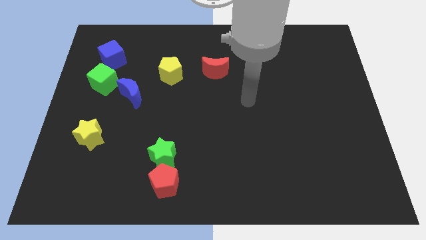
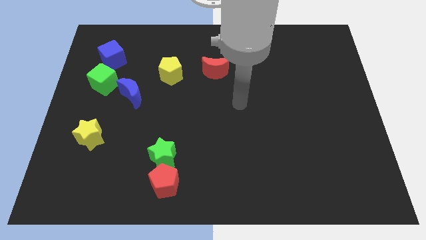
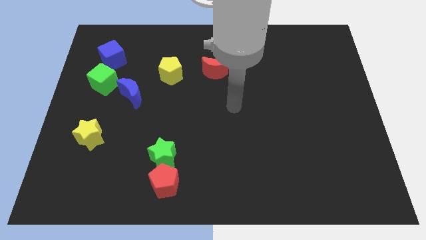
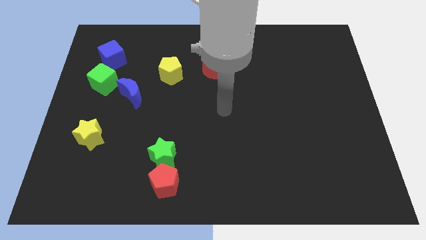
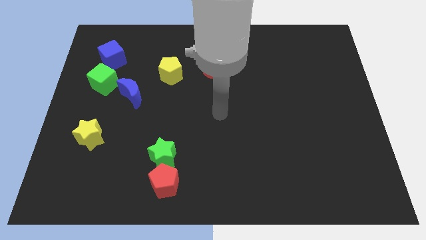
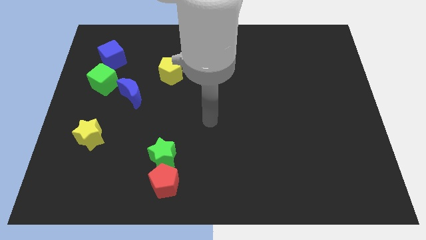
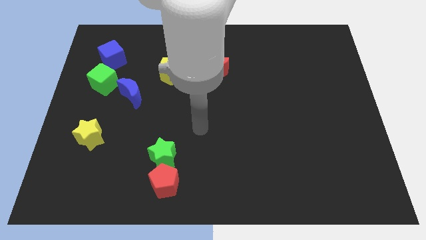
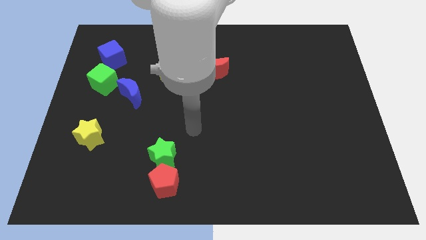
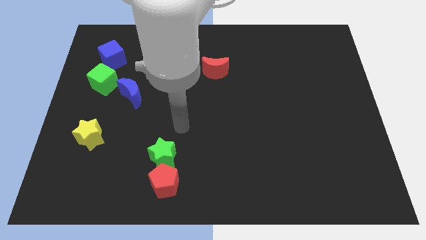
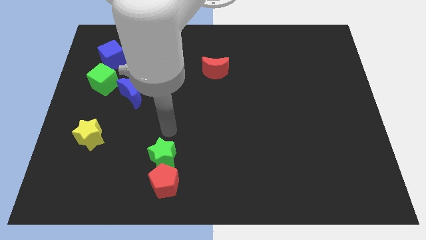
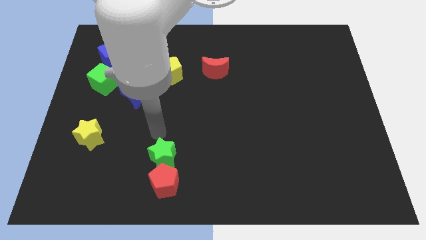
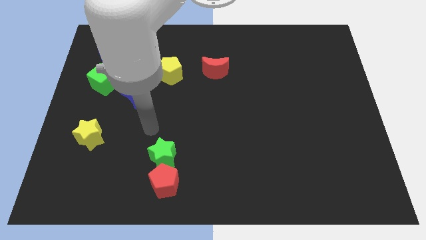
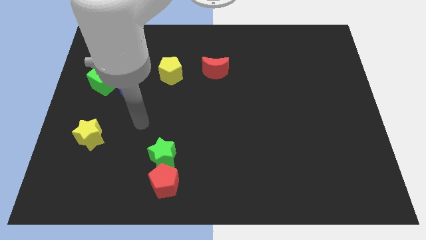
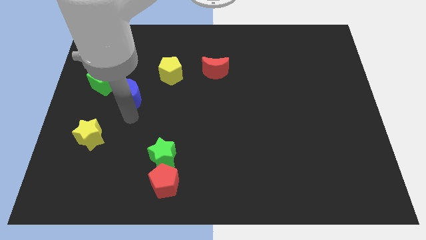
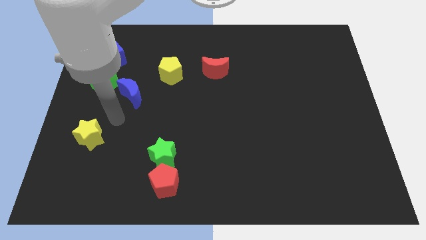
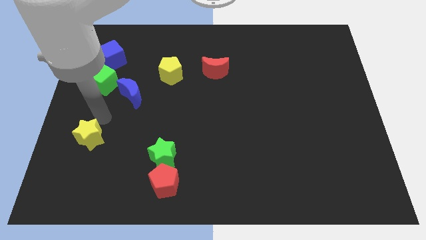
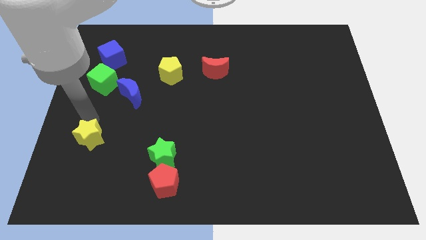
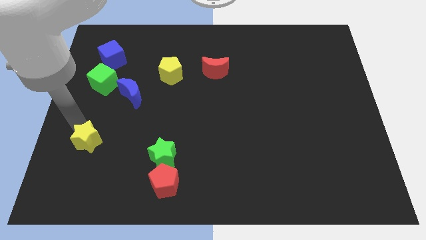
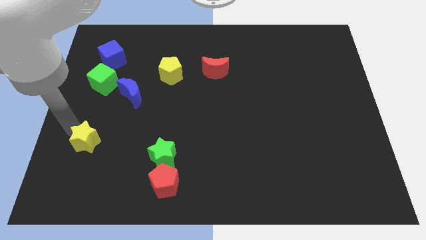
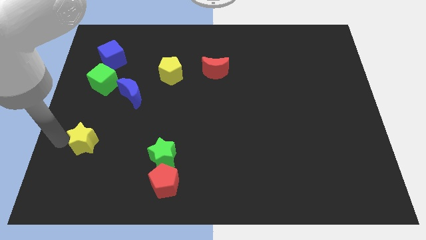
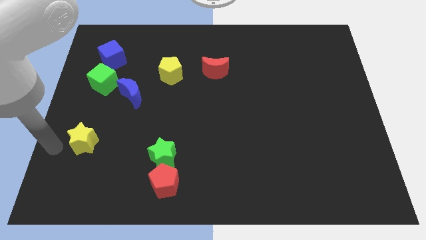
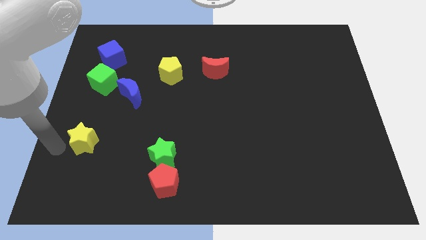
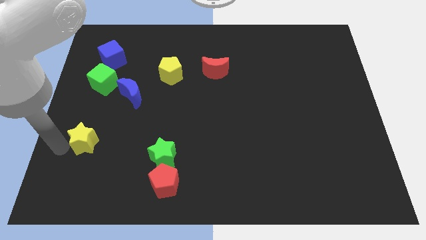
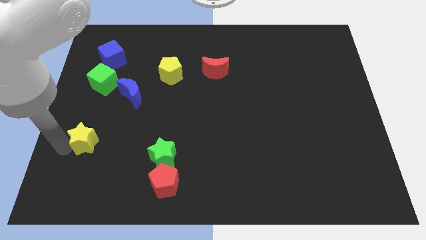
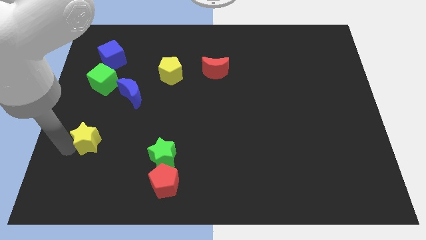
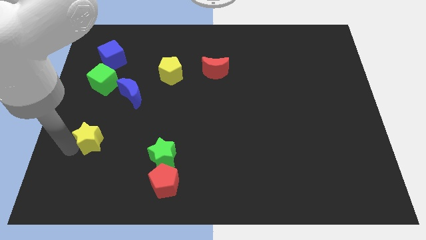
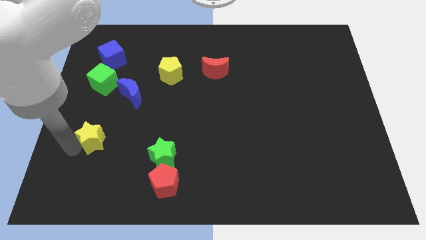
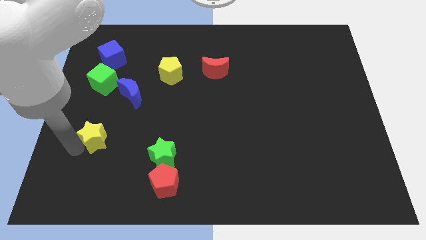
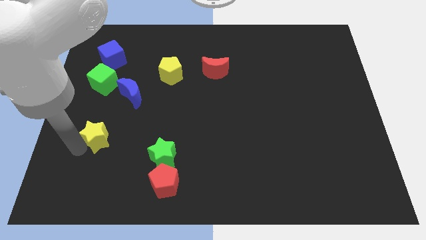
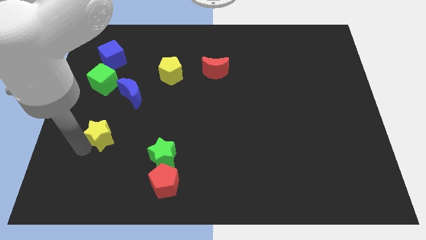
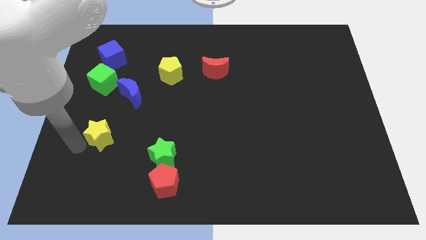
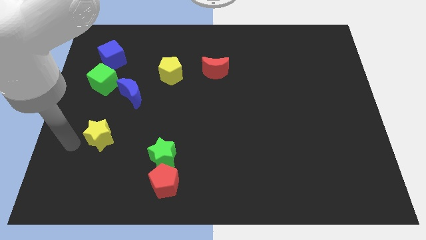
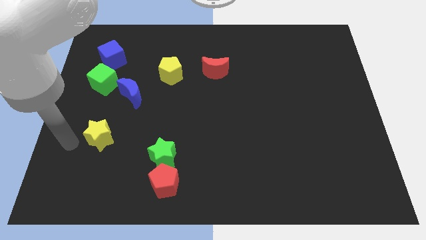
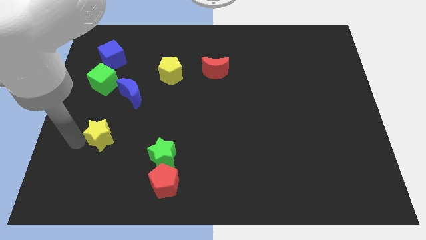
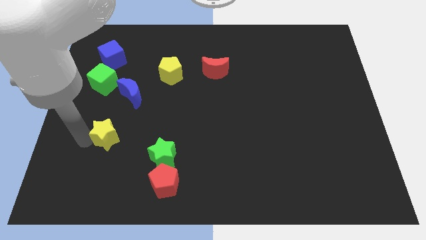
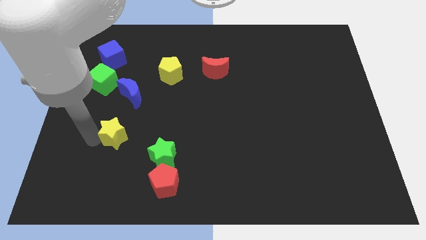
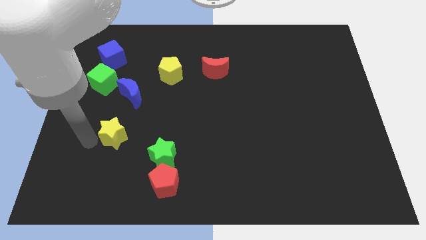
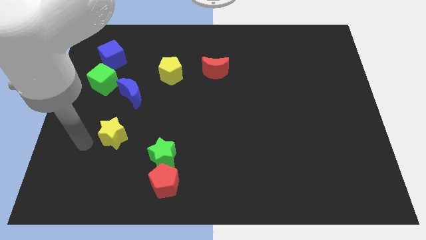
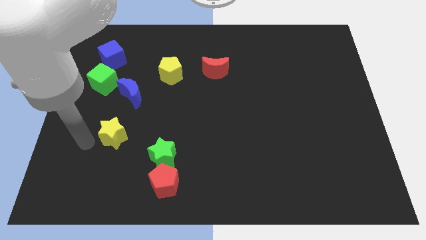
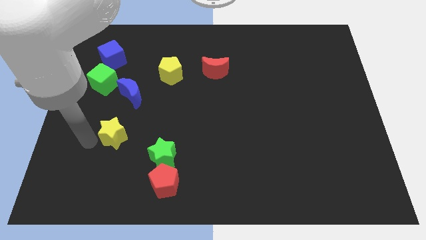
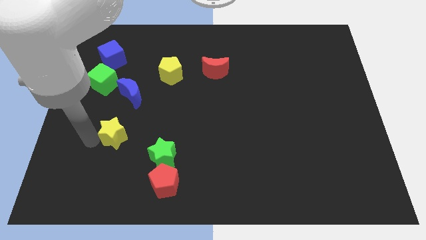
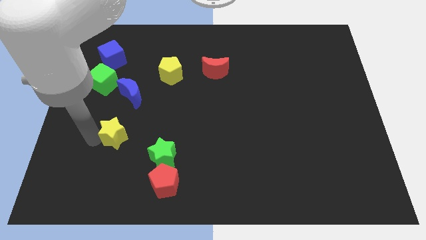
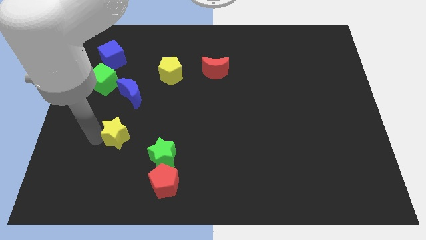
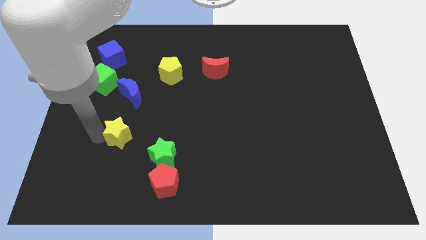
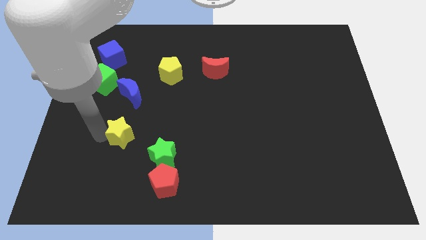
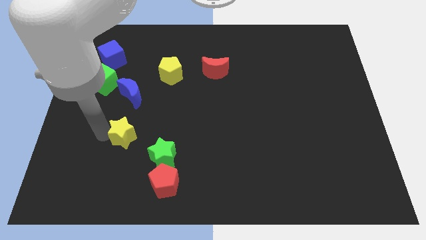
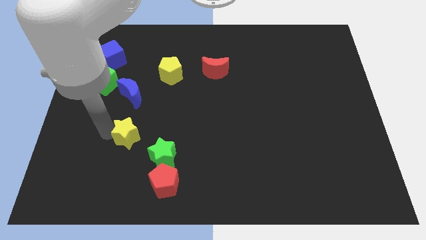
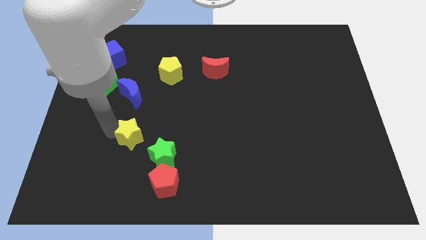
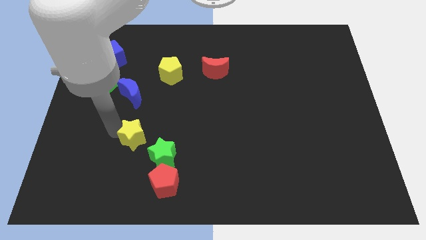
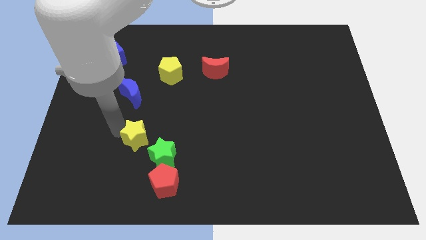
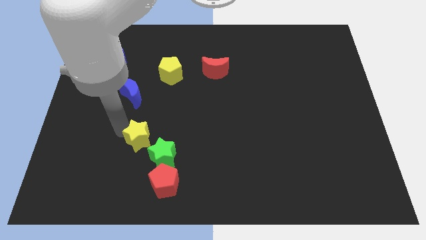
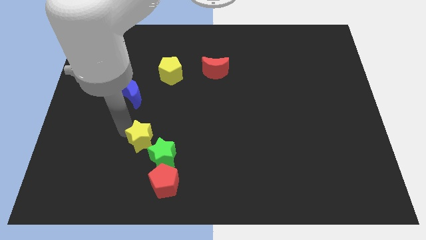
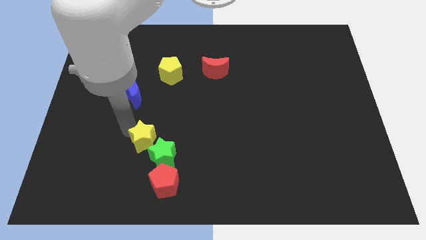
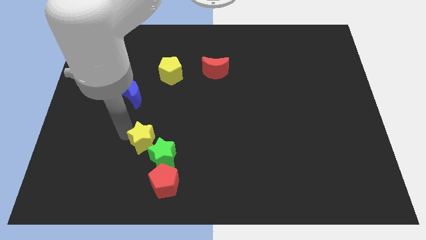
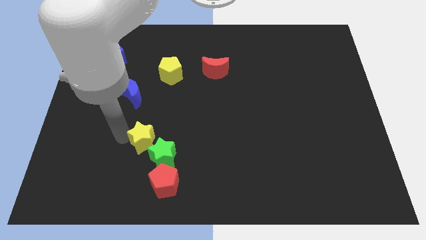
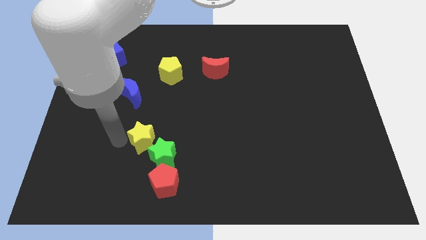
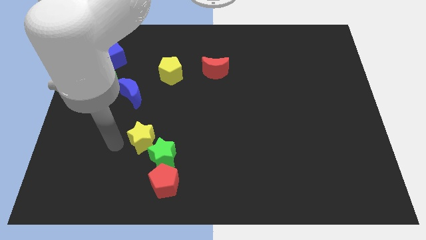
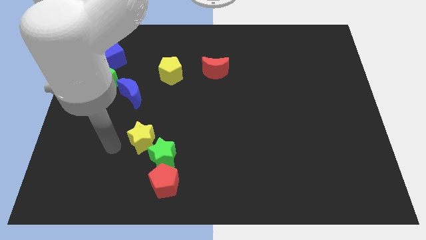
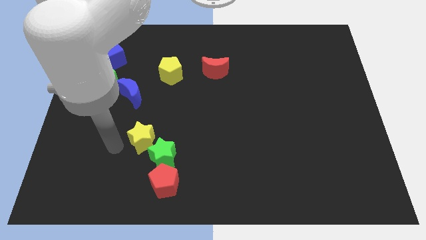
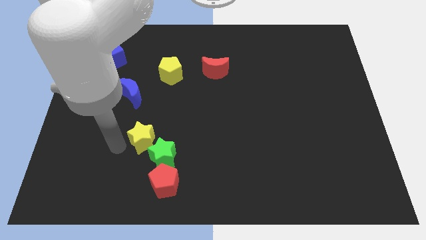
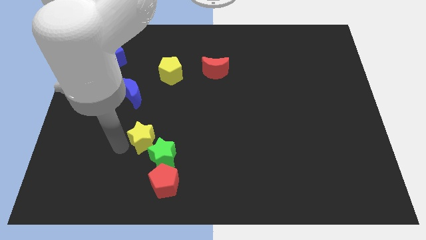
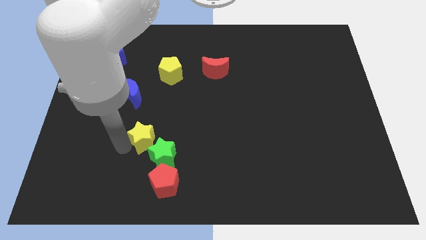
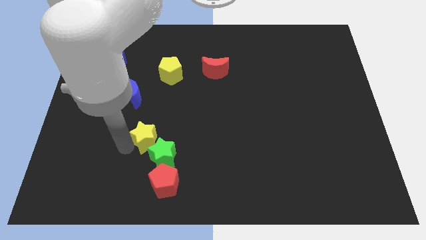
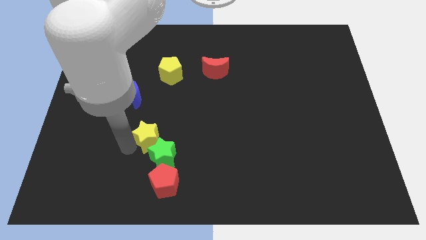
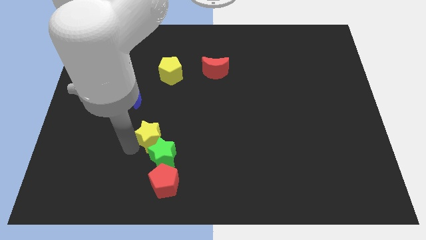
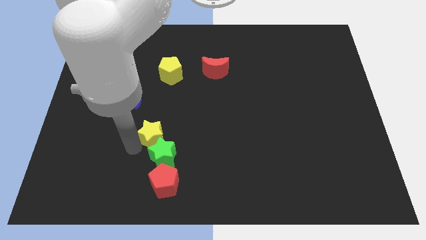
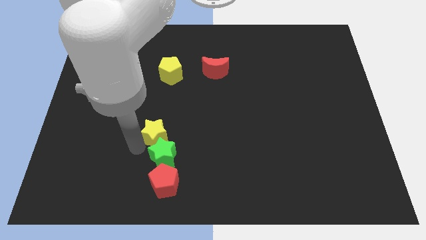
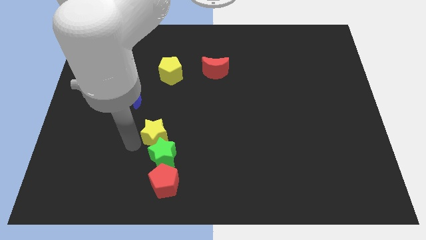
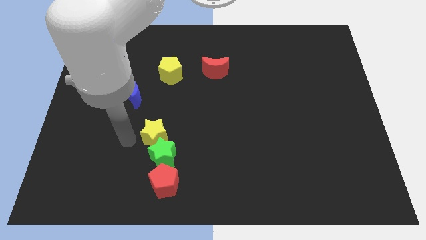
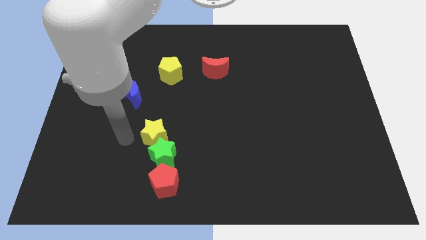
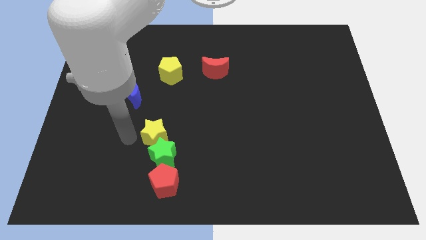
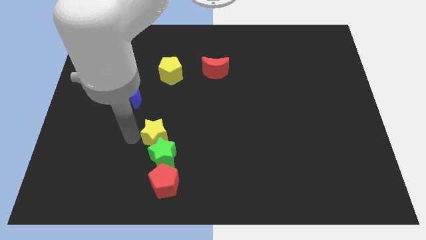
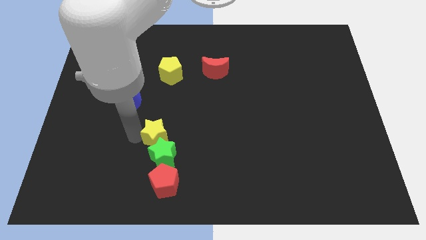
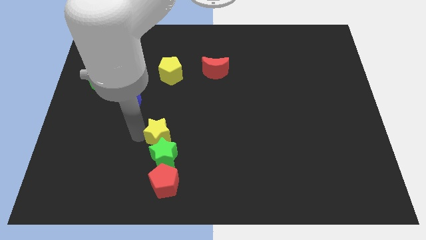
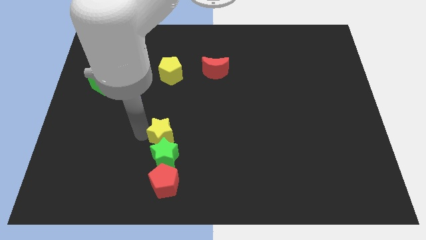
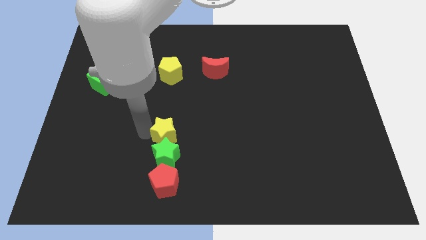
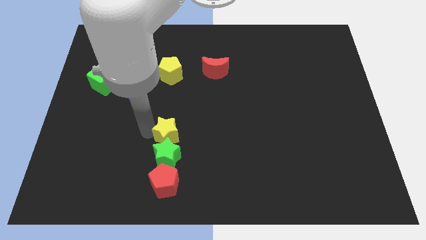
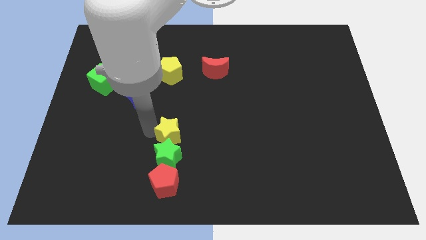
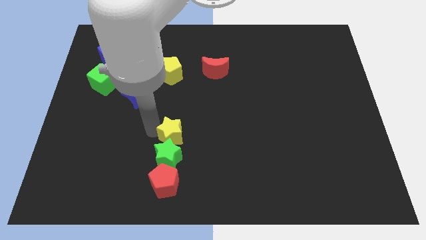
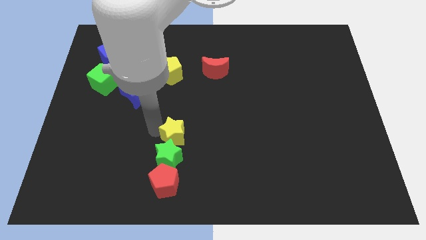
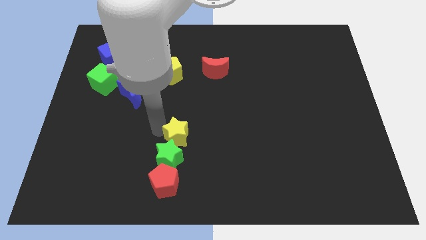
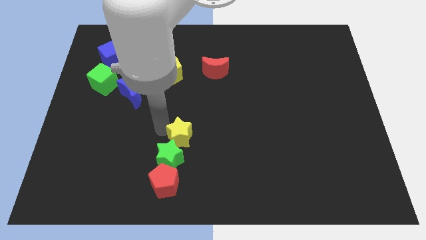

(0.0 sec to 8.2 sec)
push the yellow star to the right

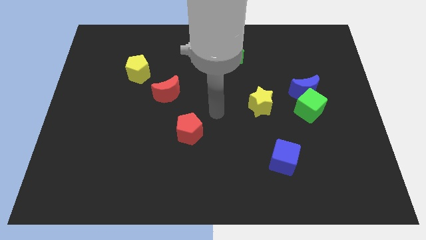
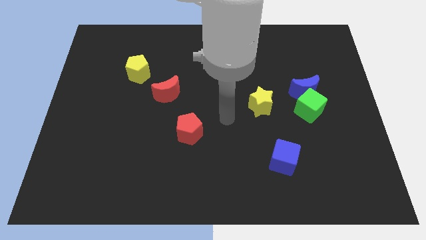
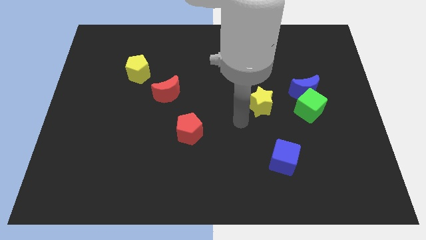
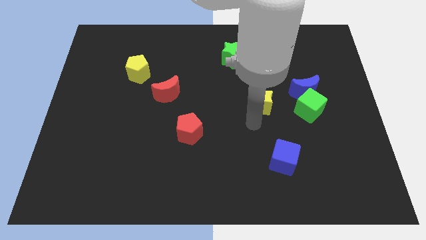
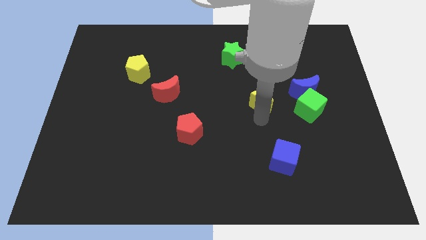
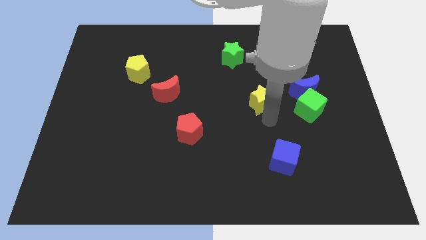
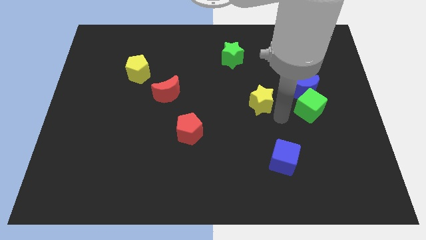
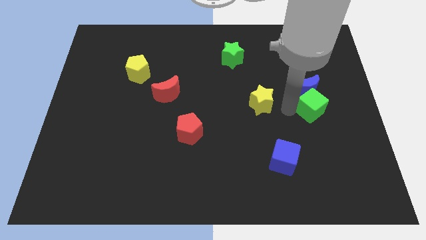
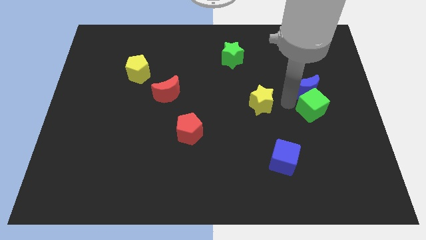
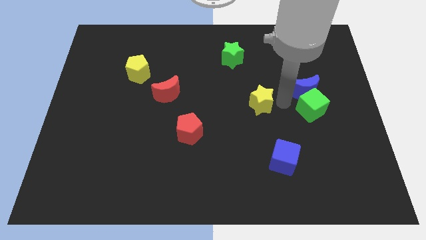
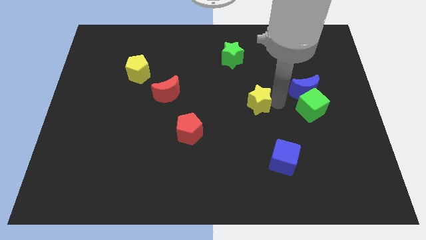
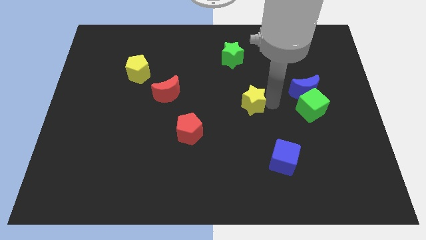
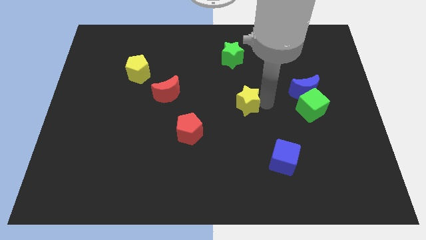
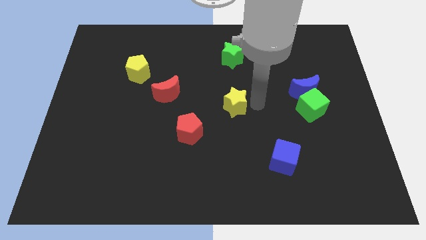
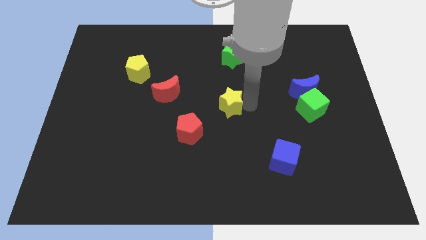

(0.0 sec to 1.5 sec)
slightly move the yellow star left
